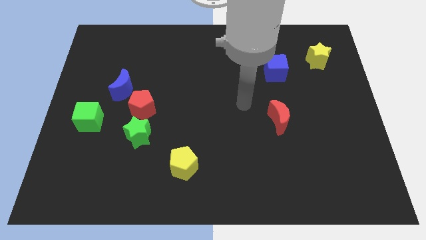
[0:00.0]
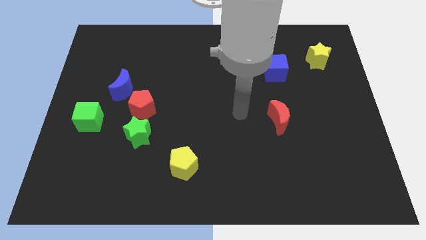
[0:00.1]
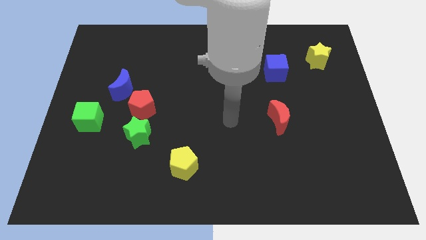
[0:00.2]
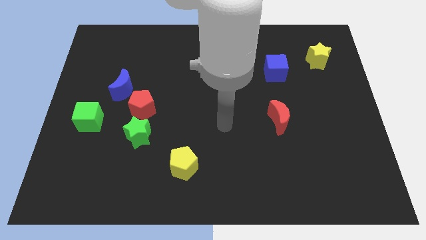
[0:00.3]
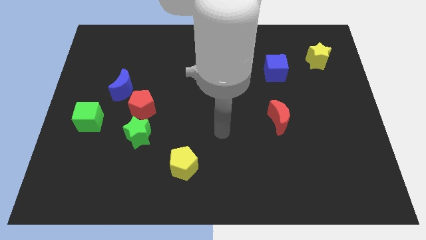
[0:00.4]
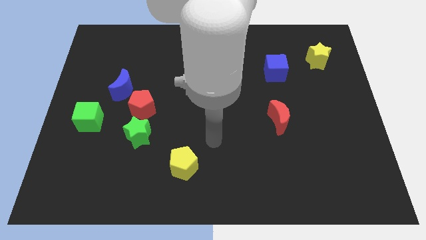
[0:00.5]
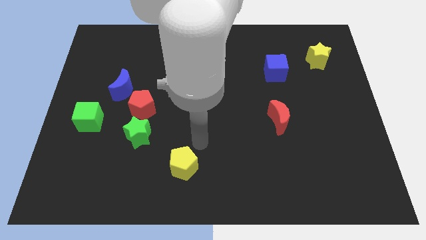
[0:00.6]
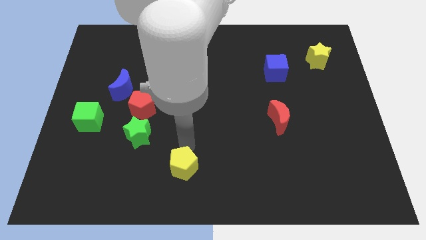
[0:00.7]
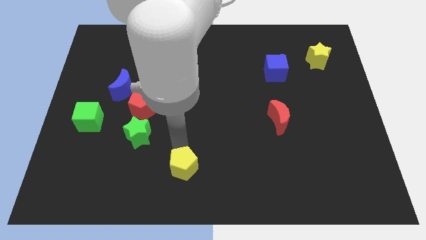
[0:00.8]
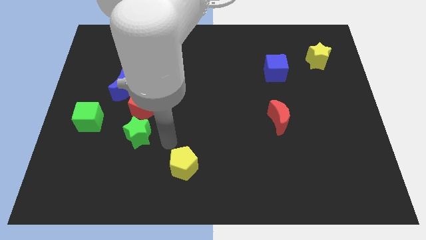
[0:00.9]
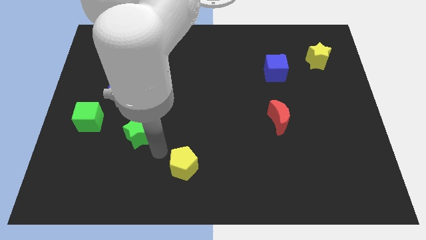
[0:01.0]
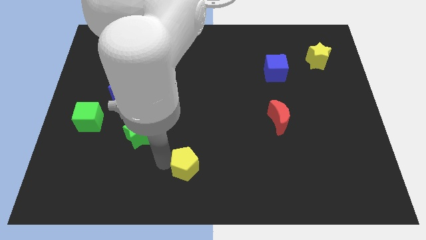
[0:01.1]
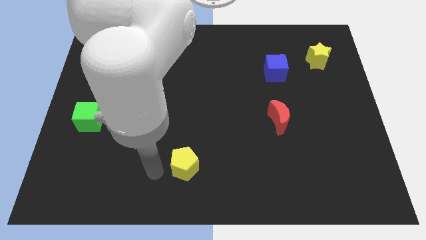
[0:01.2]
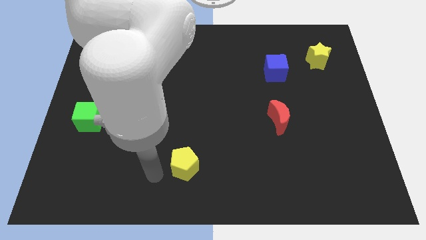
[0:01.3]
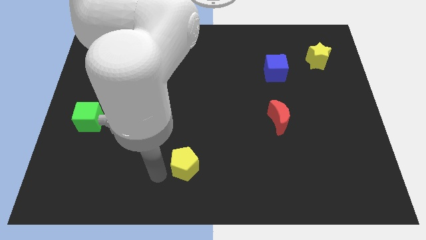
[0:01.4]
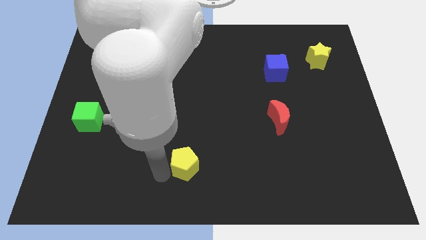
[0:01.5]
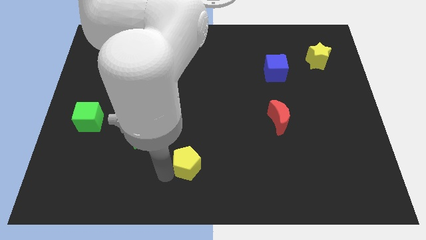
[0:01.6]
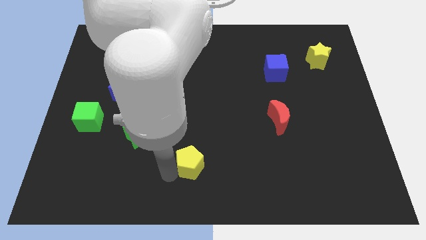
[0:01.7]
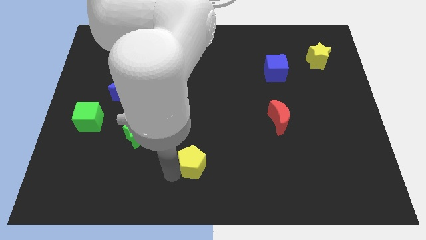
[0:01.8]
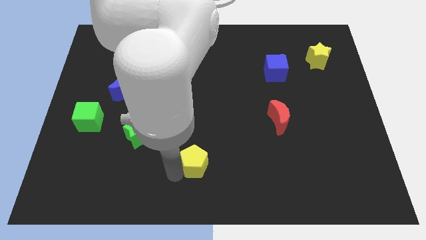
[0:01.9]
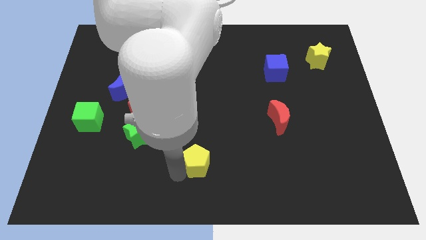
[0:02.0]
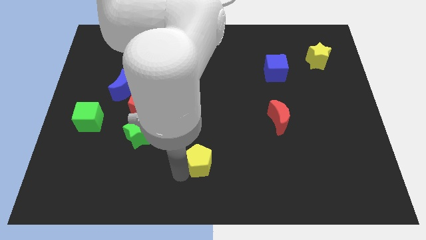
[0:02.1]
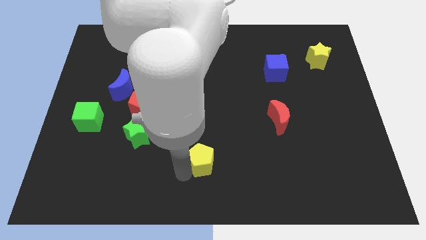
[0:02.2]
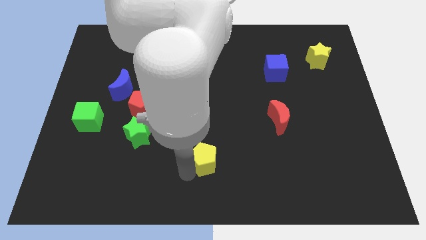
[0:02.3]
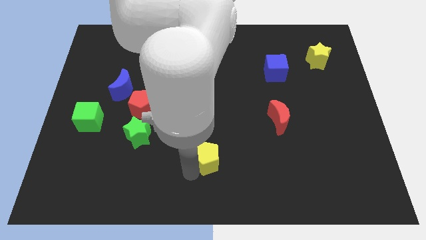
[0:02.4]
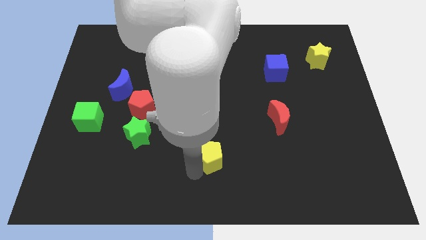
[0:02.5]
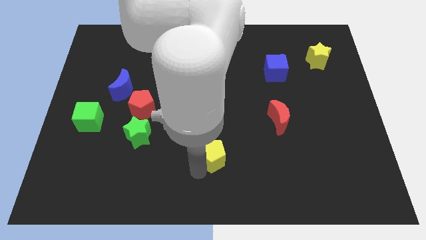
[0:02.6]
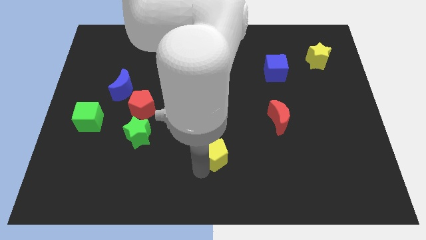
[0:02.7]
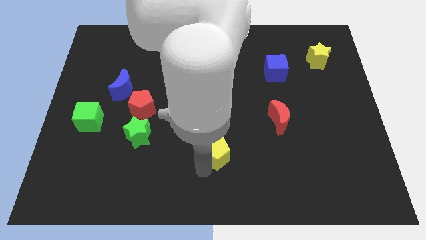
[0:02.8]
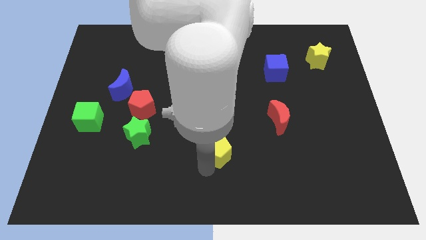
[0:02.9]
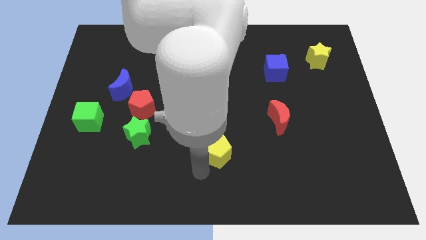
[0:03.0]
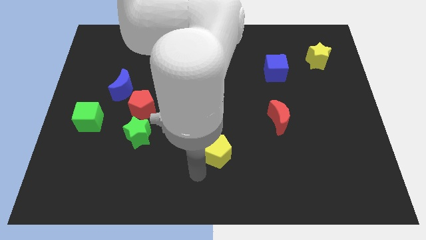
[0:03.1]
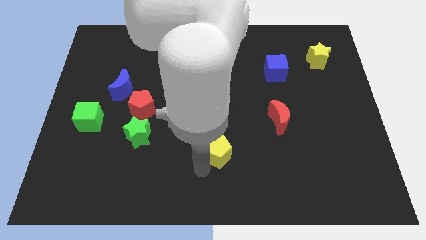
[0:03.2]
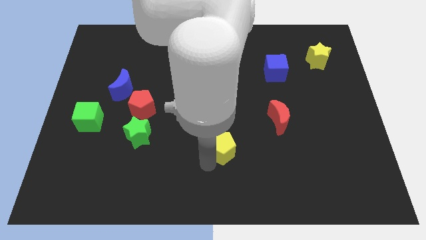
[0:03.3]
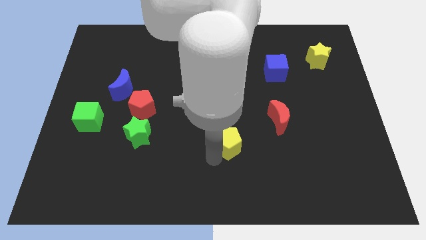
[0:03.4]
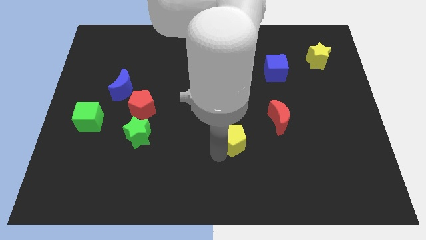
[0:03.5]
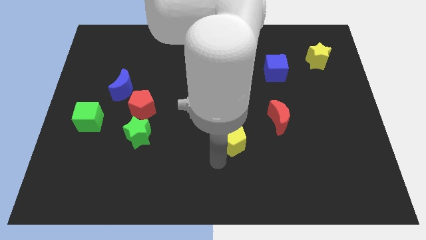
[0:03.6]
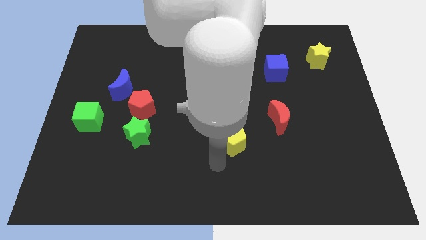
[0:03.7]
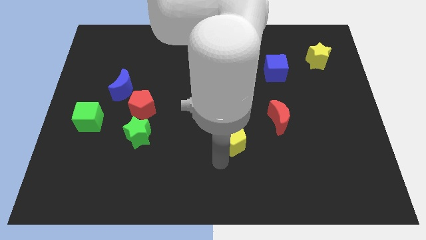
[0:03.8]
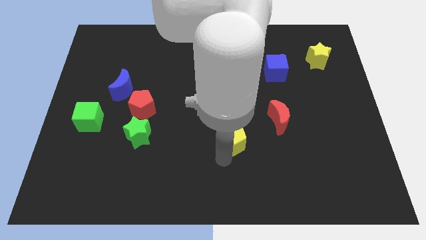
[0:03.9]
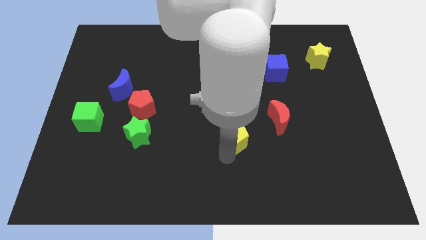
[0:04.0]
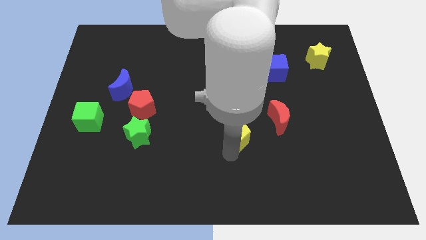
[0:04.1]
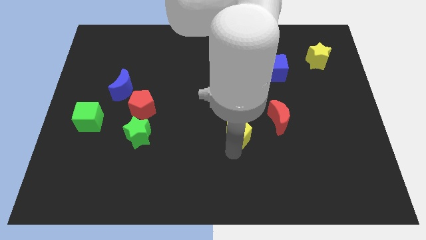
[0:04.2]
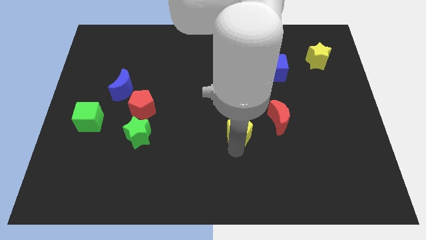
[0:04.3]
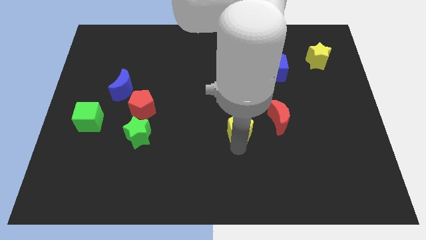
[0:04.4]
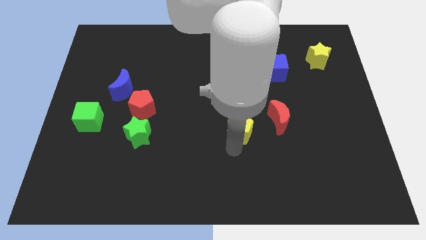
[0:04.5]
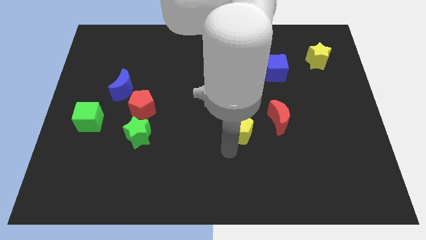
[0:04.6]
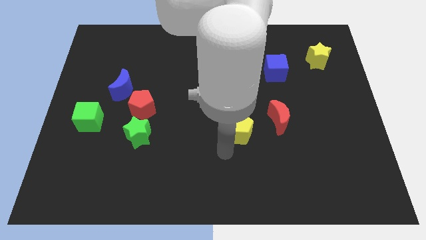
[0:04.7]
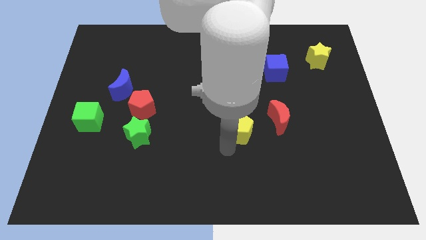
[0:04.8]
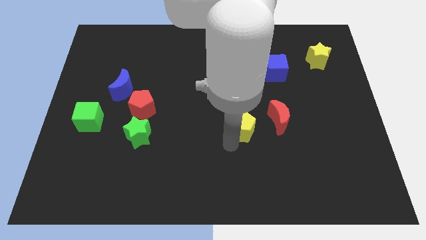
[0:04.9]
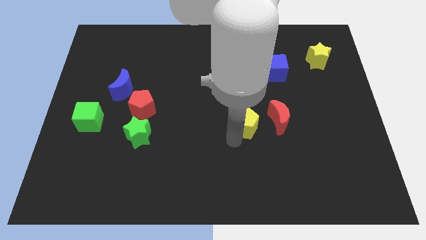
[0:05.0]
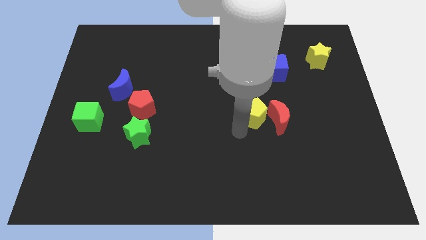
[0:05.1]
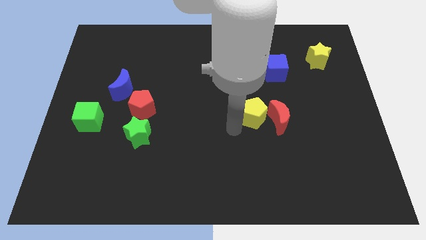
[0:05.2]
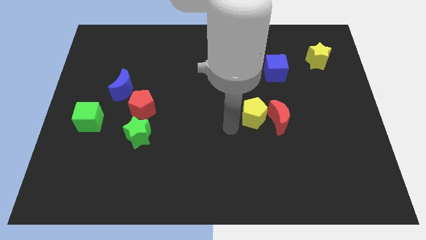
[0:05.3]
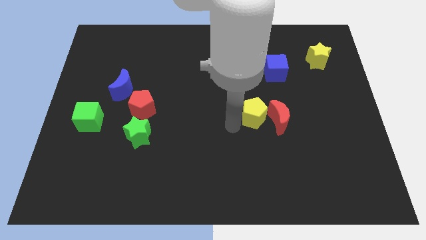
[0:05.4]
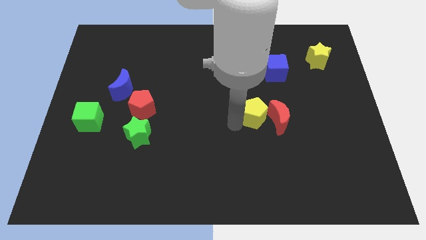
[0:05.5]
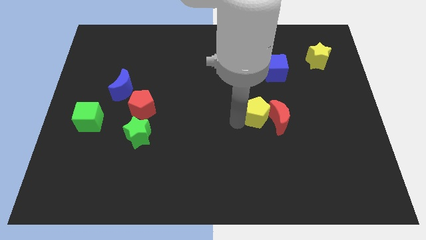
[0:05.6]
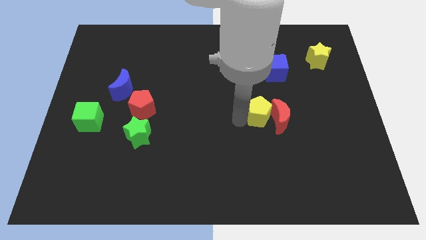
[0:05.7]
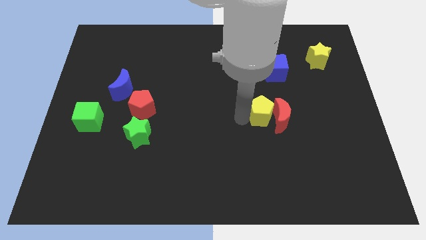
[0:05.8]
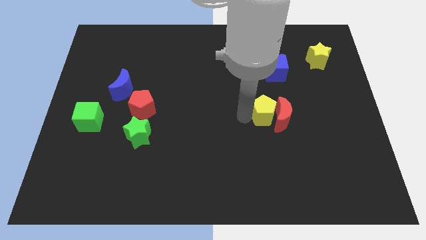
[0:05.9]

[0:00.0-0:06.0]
put the yellow pentagon to the bottom side of the blue cube

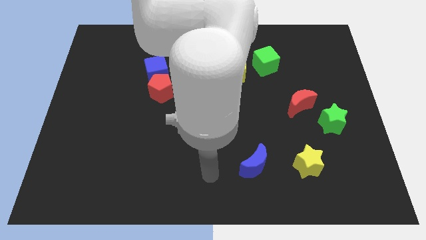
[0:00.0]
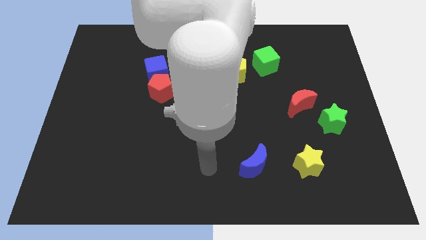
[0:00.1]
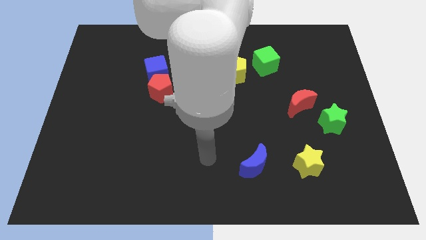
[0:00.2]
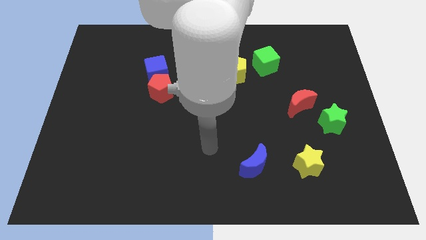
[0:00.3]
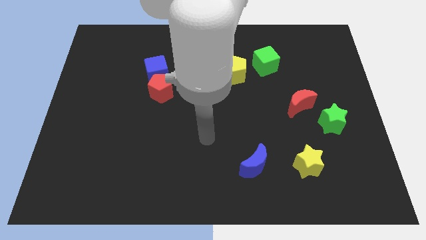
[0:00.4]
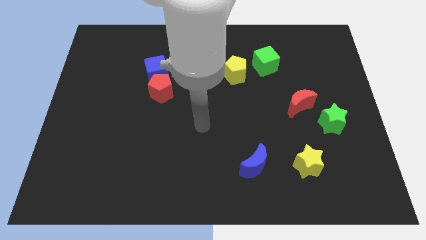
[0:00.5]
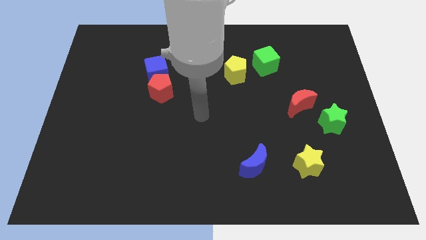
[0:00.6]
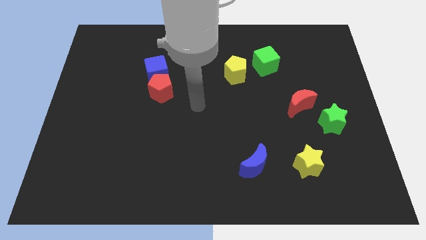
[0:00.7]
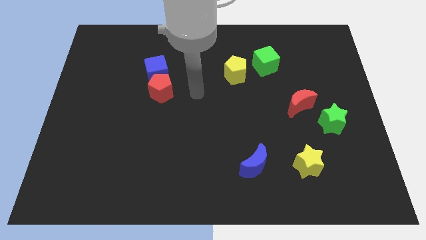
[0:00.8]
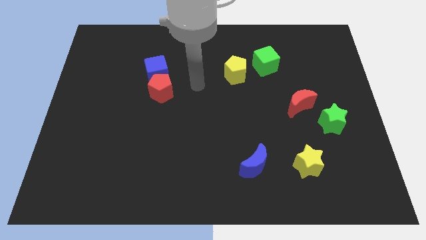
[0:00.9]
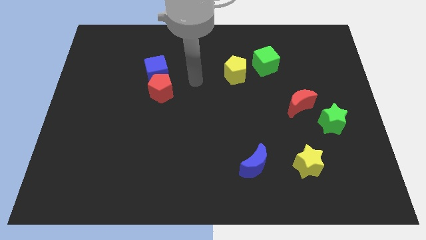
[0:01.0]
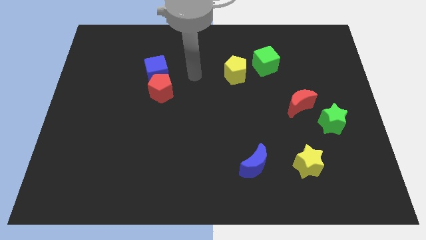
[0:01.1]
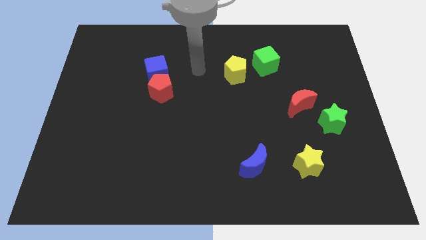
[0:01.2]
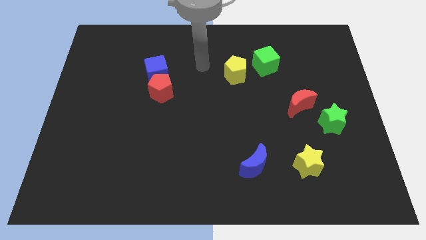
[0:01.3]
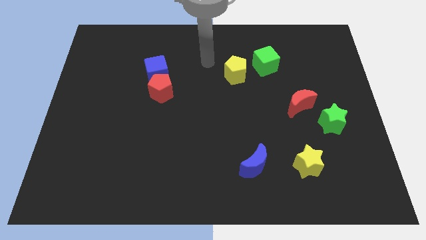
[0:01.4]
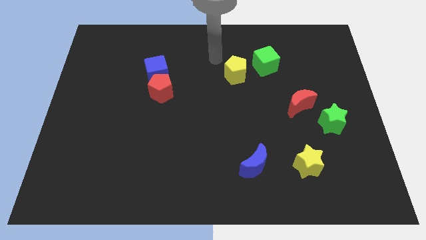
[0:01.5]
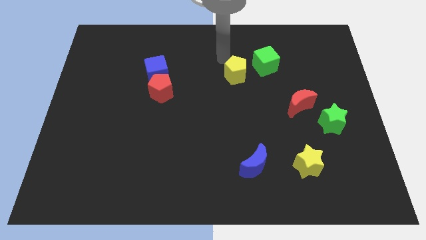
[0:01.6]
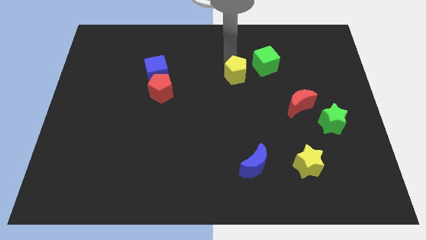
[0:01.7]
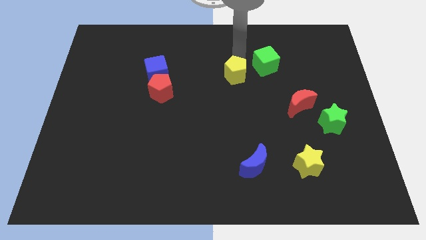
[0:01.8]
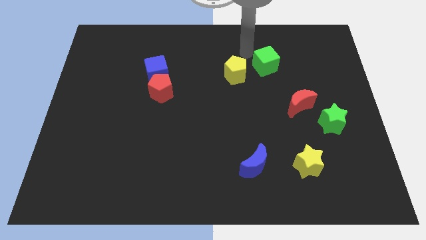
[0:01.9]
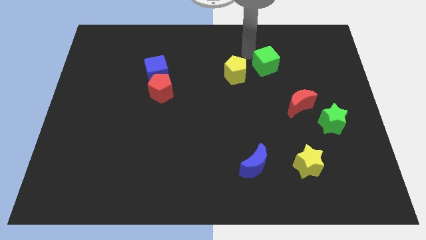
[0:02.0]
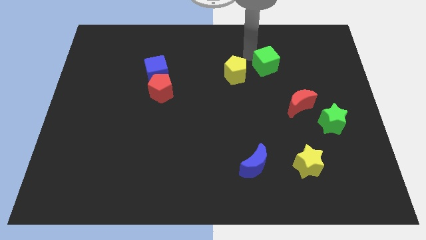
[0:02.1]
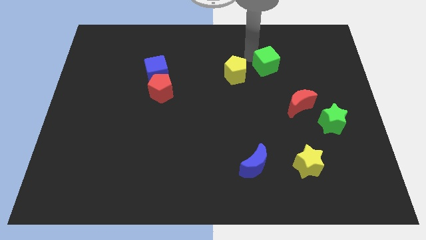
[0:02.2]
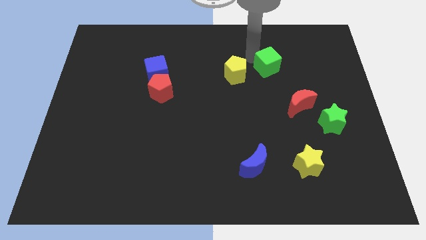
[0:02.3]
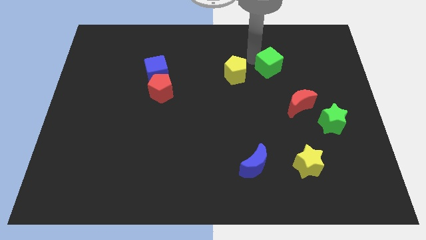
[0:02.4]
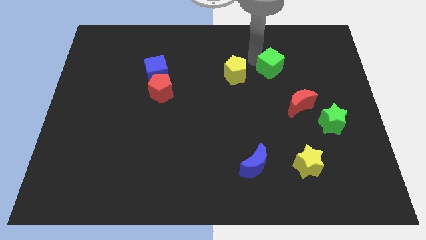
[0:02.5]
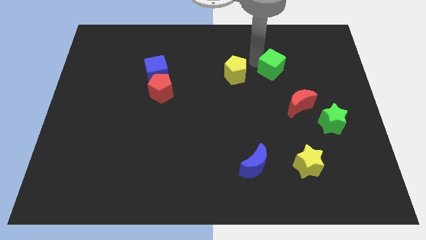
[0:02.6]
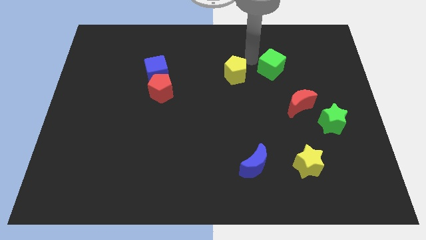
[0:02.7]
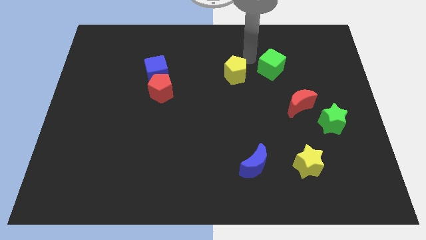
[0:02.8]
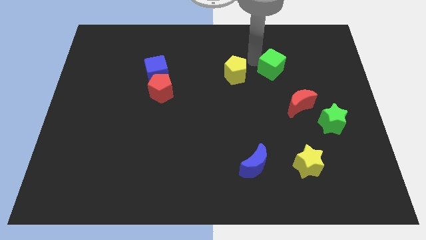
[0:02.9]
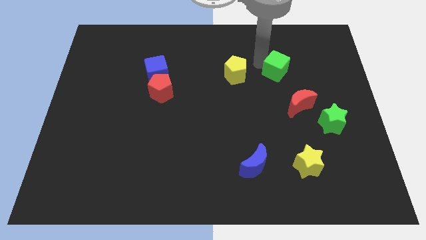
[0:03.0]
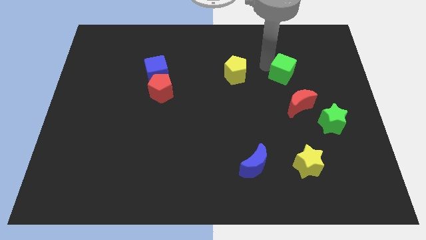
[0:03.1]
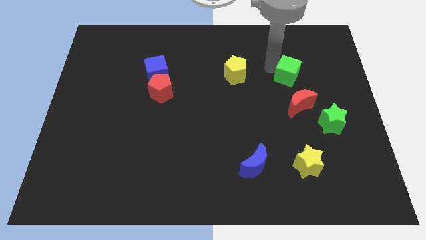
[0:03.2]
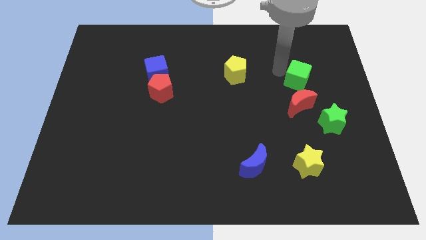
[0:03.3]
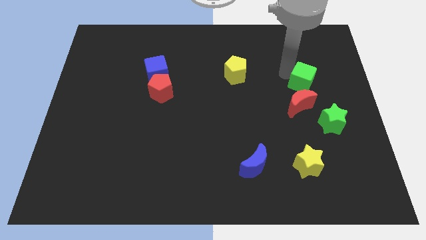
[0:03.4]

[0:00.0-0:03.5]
move the green cube diagonally up and to the right of the red moon
